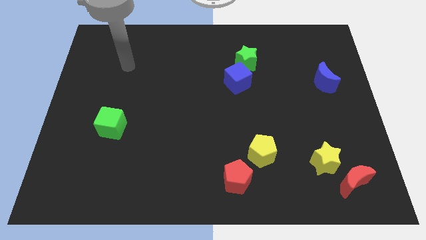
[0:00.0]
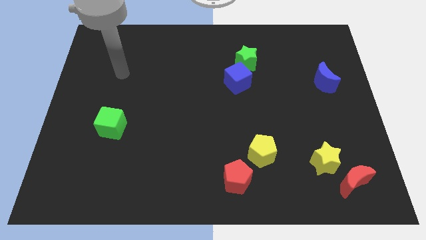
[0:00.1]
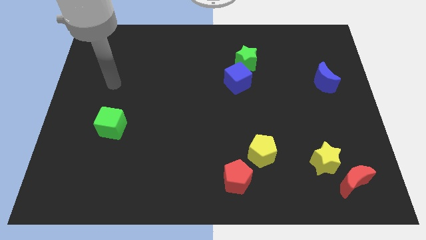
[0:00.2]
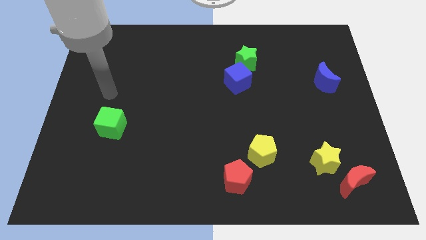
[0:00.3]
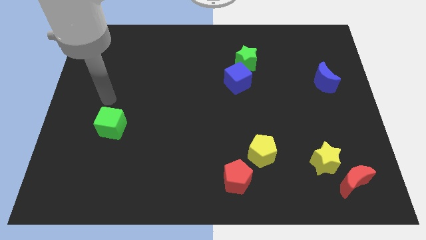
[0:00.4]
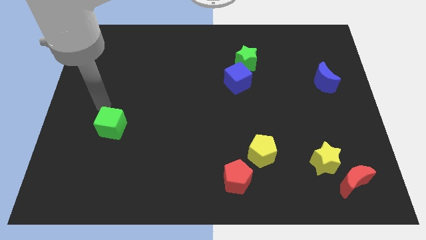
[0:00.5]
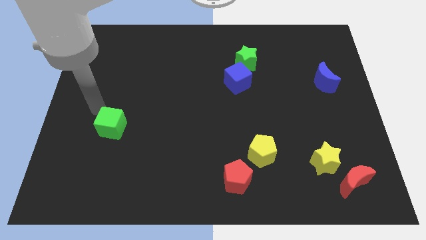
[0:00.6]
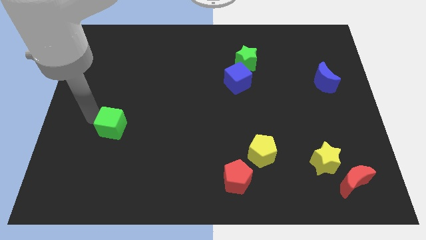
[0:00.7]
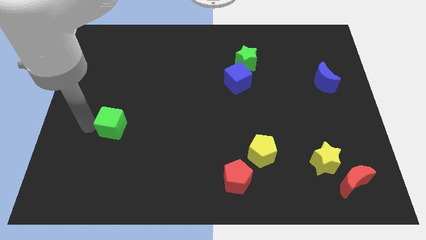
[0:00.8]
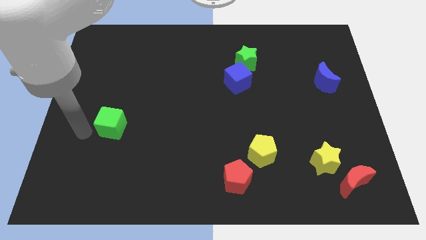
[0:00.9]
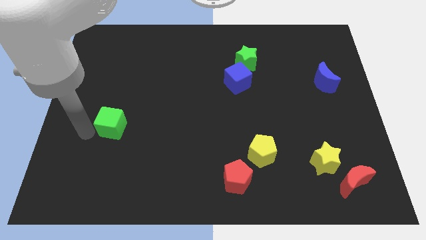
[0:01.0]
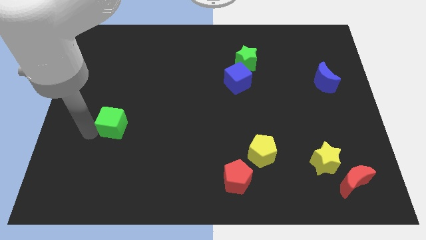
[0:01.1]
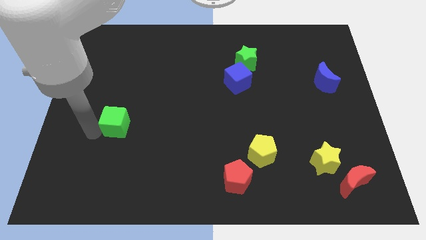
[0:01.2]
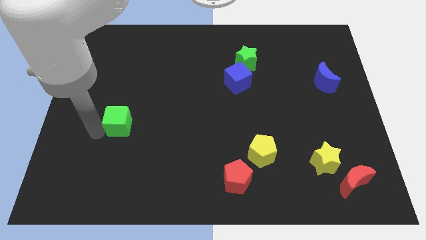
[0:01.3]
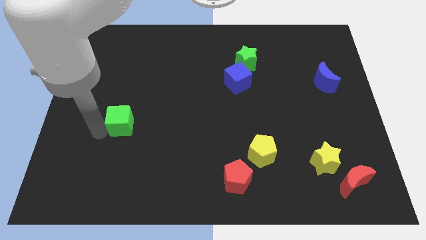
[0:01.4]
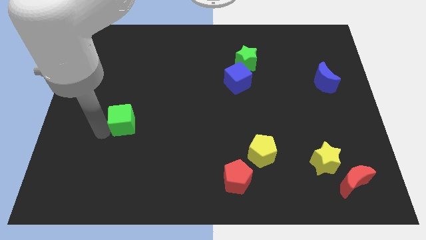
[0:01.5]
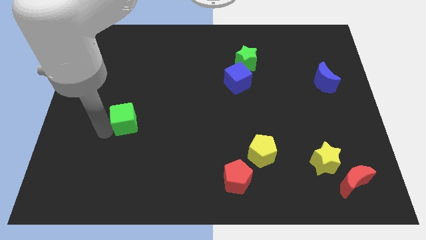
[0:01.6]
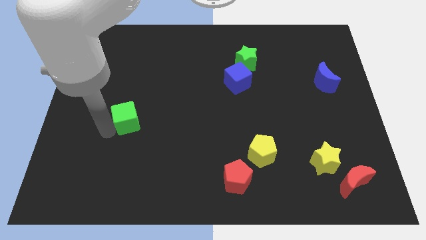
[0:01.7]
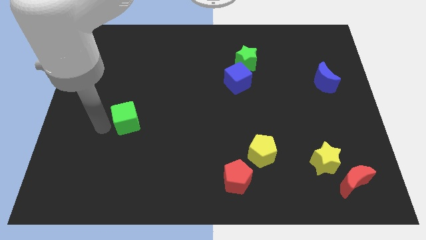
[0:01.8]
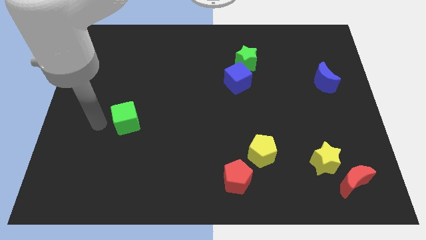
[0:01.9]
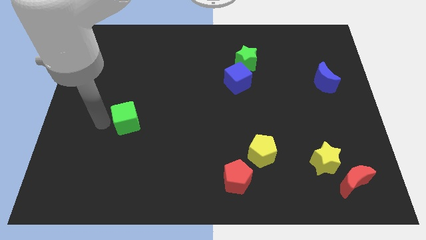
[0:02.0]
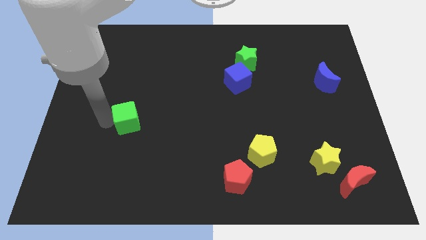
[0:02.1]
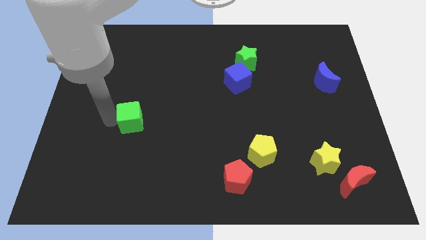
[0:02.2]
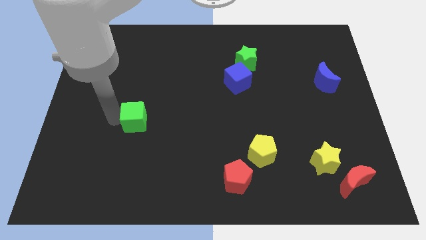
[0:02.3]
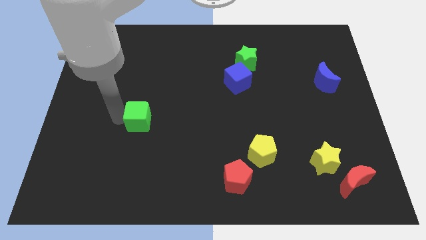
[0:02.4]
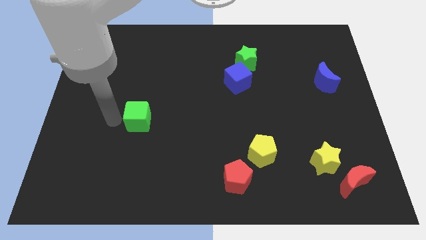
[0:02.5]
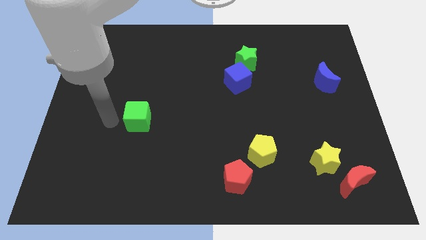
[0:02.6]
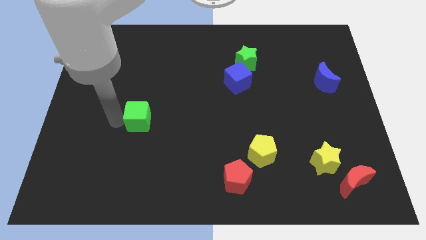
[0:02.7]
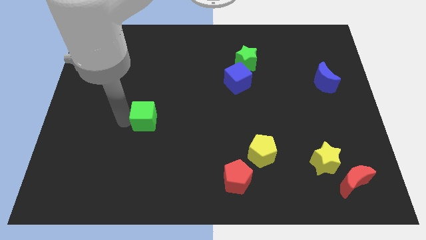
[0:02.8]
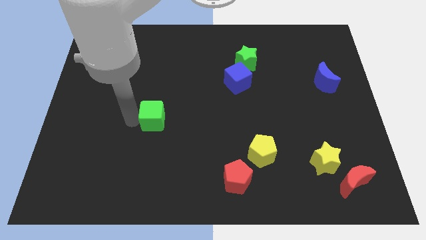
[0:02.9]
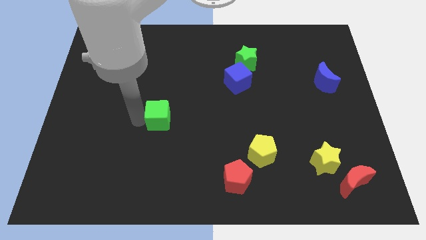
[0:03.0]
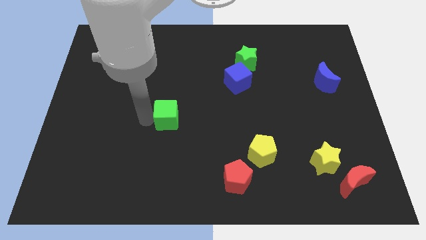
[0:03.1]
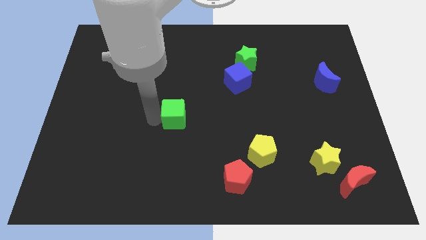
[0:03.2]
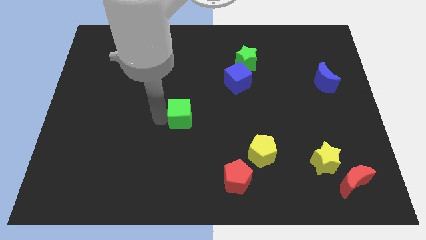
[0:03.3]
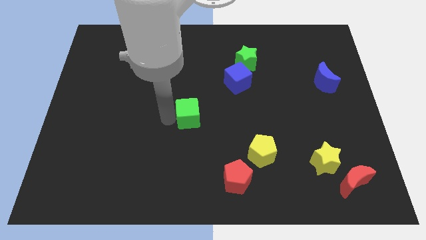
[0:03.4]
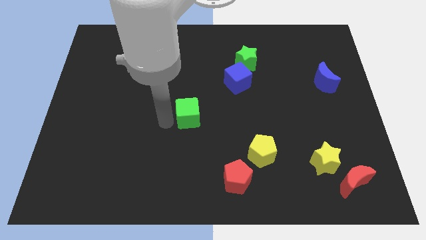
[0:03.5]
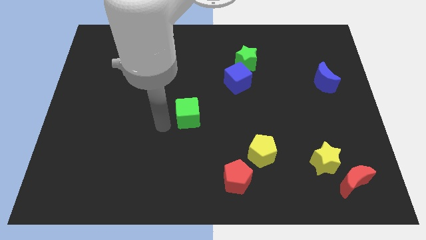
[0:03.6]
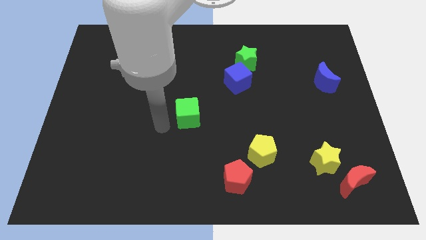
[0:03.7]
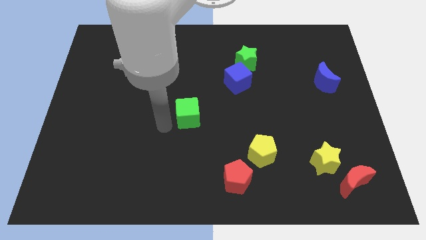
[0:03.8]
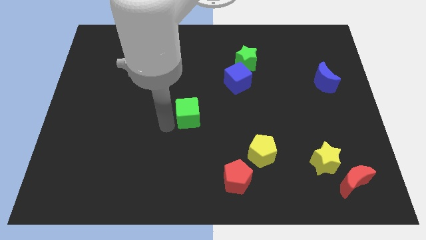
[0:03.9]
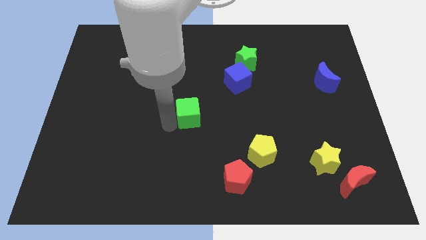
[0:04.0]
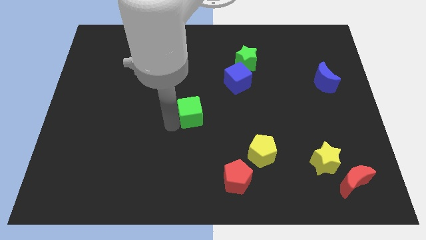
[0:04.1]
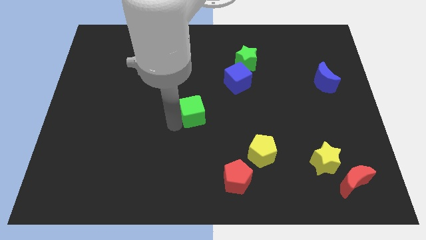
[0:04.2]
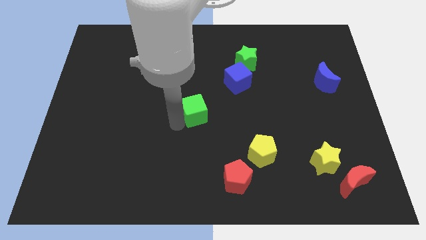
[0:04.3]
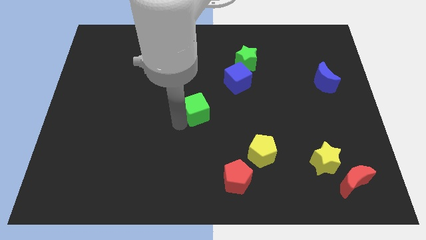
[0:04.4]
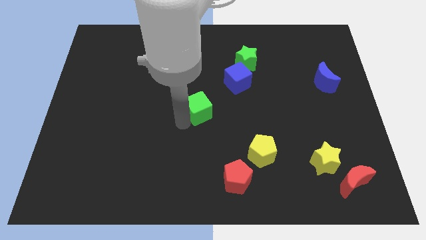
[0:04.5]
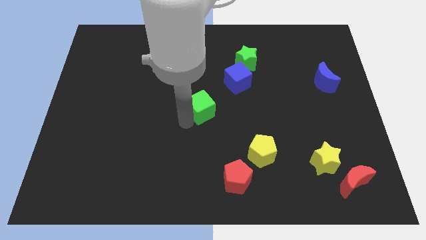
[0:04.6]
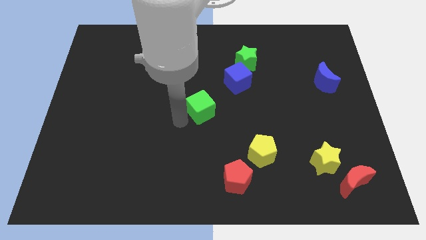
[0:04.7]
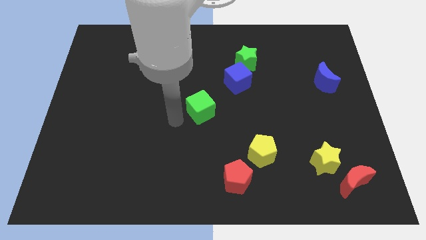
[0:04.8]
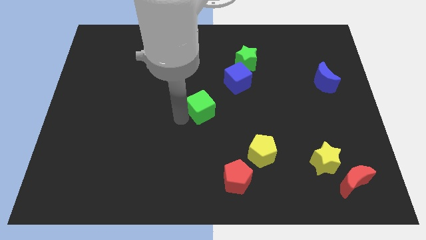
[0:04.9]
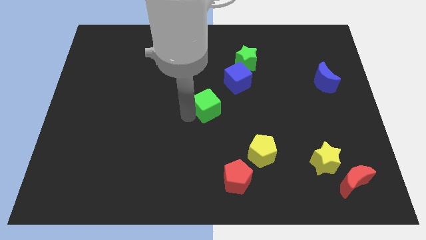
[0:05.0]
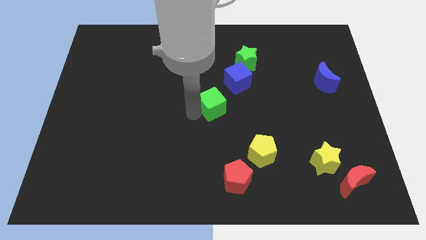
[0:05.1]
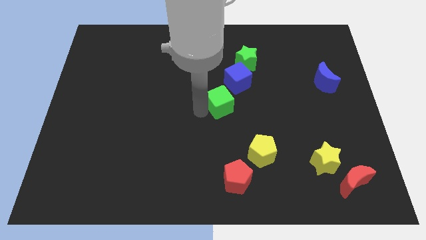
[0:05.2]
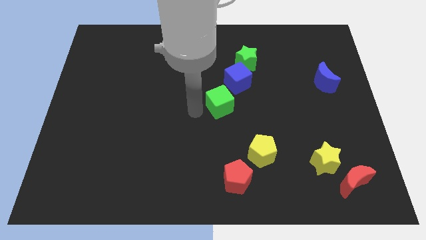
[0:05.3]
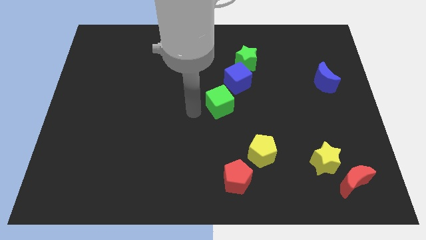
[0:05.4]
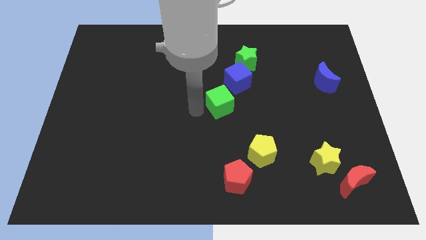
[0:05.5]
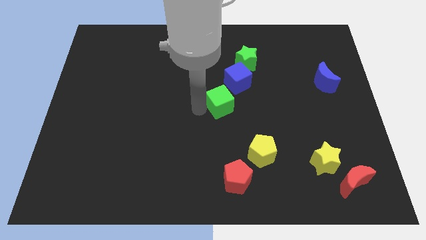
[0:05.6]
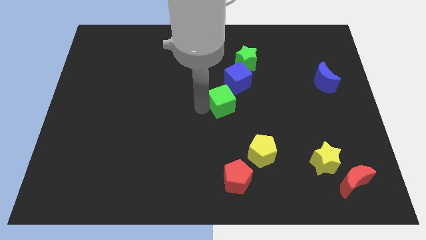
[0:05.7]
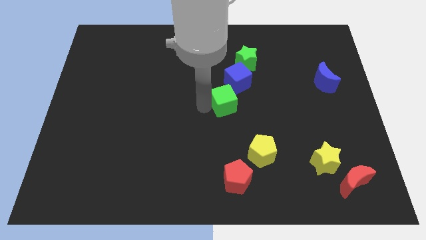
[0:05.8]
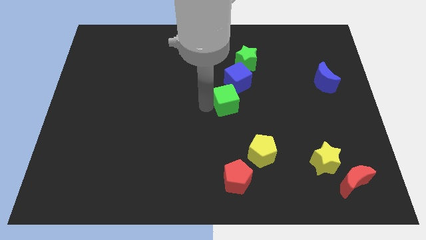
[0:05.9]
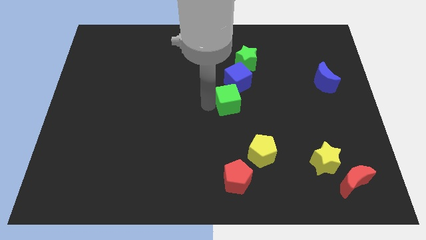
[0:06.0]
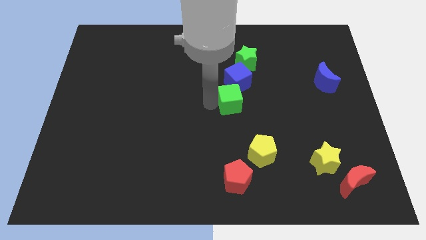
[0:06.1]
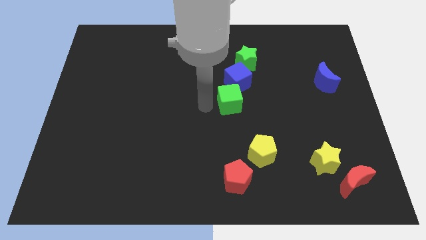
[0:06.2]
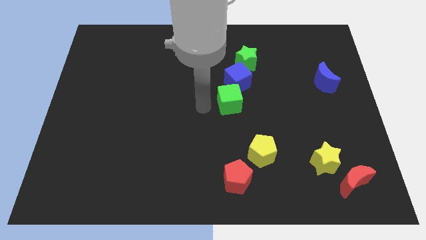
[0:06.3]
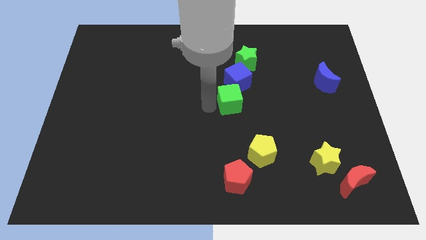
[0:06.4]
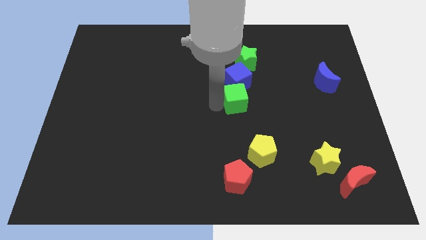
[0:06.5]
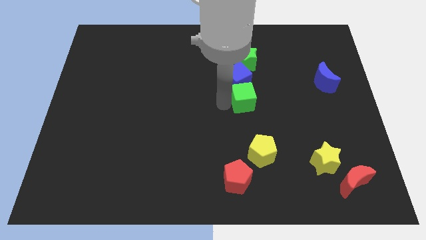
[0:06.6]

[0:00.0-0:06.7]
move the green cube diagonally down and to the right of the blue cube

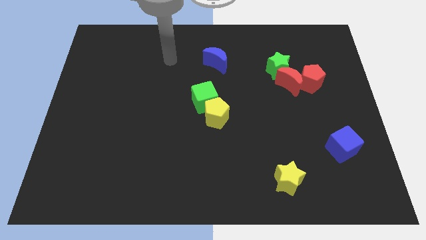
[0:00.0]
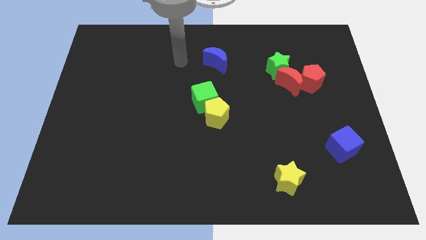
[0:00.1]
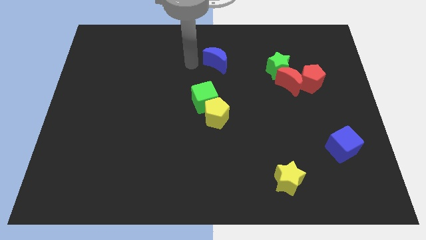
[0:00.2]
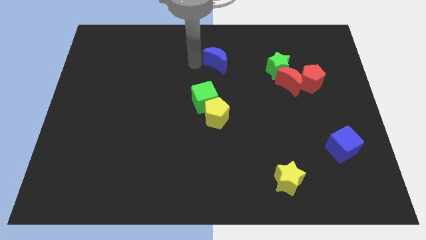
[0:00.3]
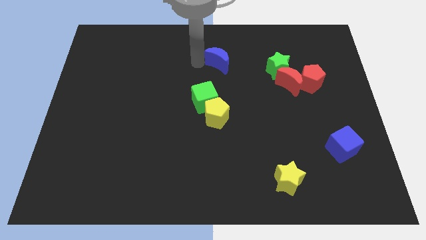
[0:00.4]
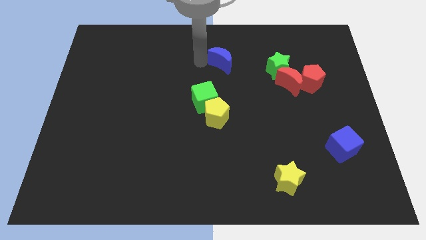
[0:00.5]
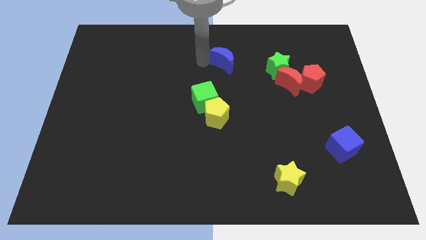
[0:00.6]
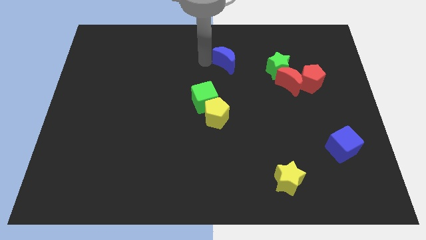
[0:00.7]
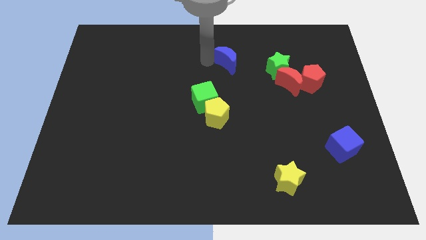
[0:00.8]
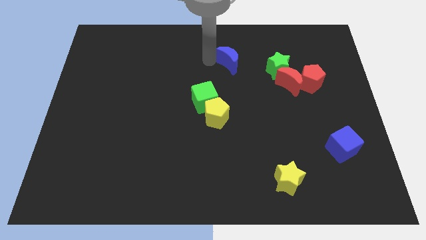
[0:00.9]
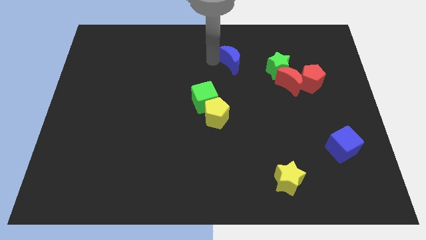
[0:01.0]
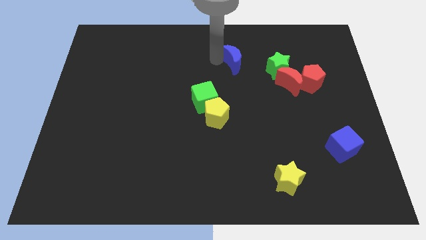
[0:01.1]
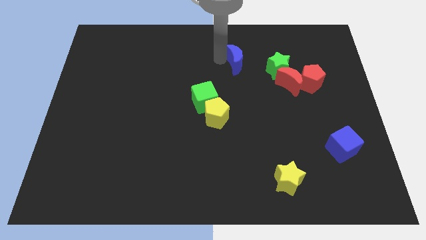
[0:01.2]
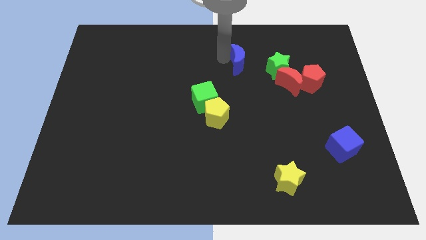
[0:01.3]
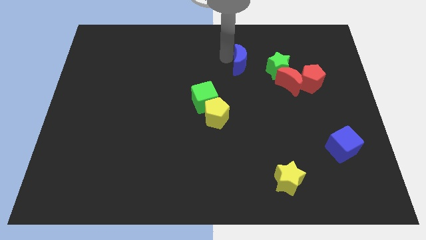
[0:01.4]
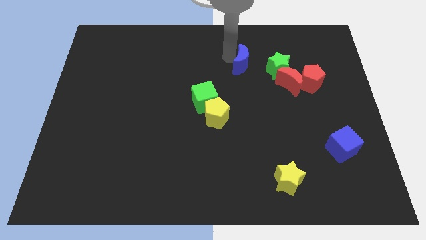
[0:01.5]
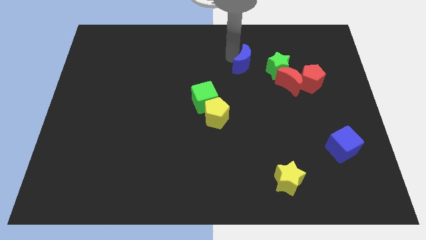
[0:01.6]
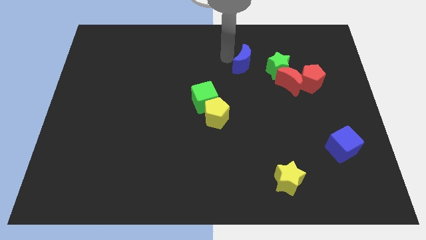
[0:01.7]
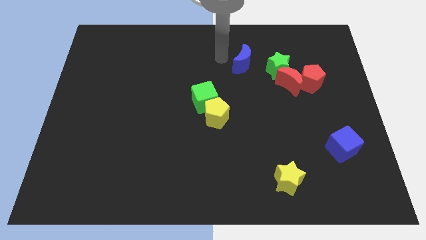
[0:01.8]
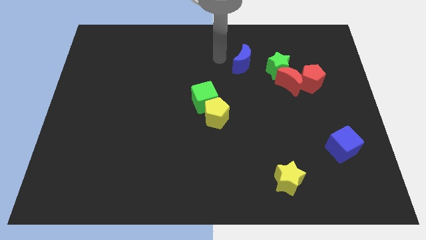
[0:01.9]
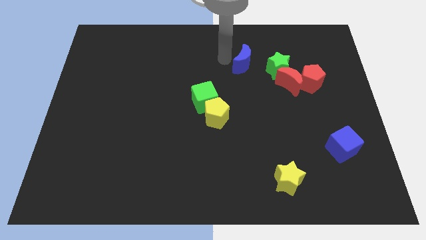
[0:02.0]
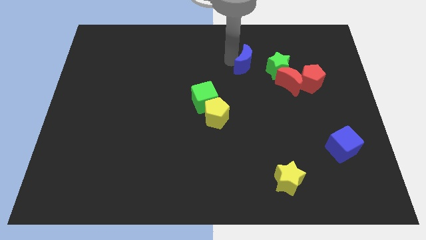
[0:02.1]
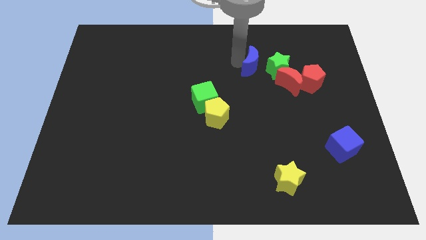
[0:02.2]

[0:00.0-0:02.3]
put the blue moon to the top left of the red moon
